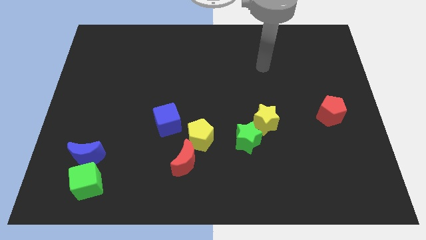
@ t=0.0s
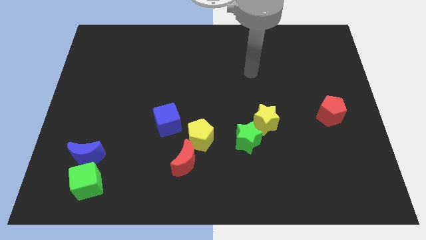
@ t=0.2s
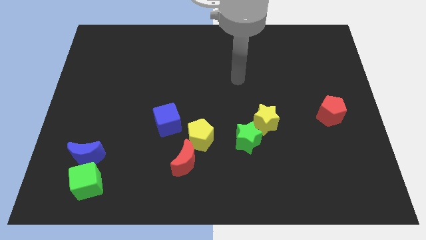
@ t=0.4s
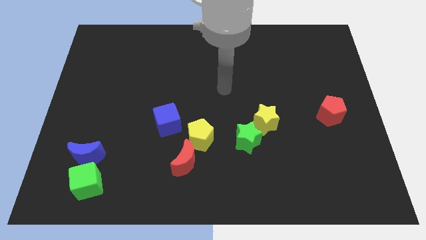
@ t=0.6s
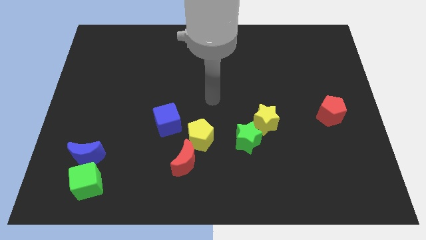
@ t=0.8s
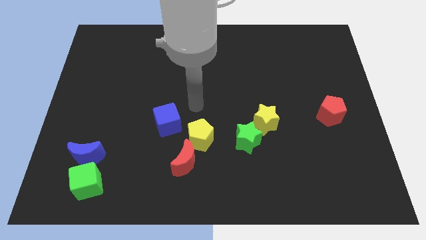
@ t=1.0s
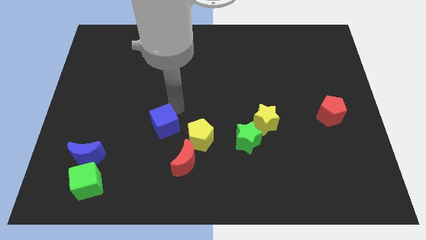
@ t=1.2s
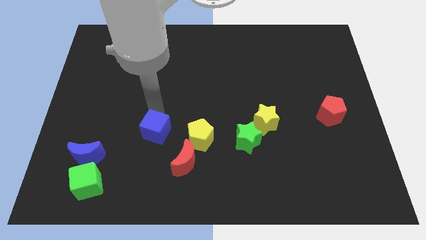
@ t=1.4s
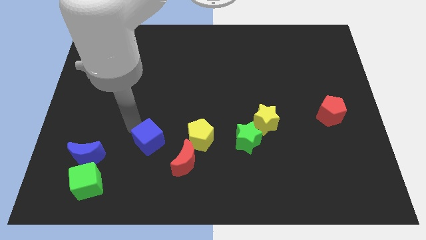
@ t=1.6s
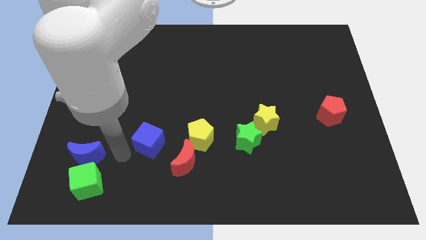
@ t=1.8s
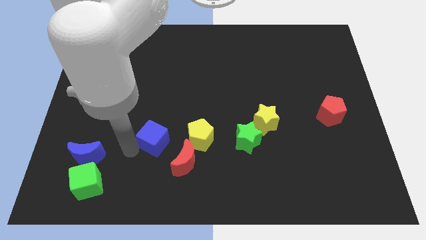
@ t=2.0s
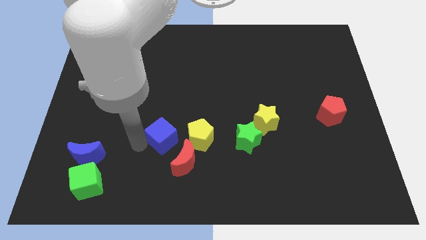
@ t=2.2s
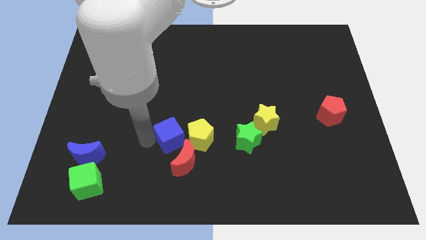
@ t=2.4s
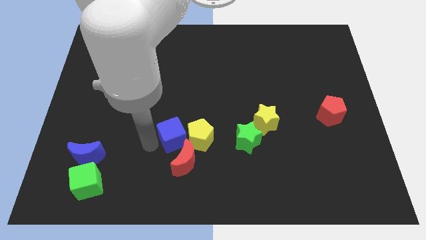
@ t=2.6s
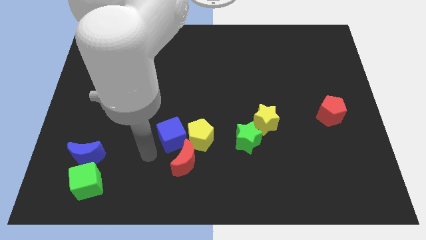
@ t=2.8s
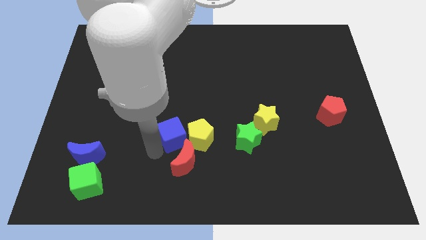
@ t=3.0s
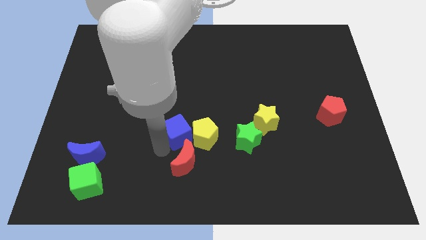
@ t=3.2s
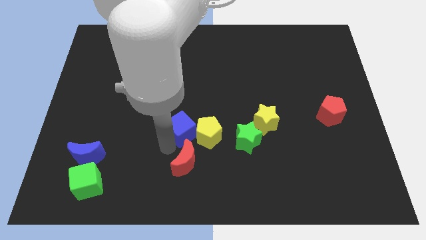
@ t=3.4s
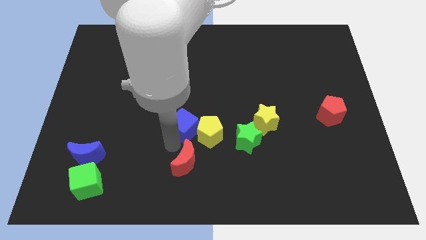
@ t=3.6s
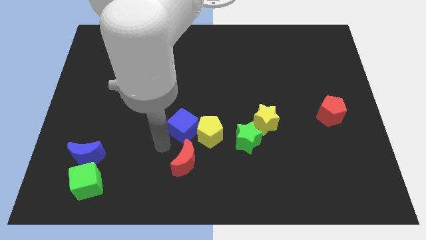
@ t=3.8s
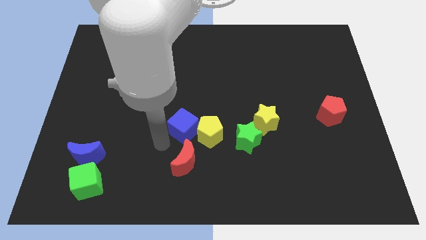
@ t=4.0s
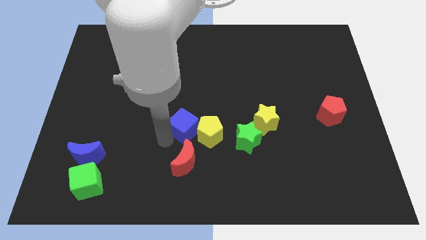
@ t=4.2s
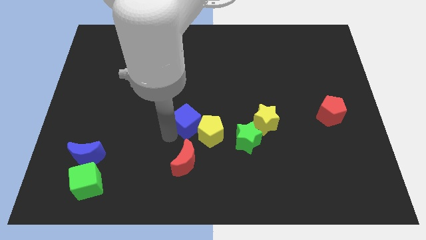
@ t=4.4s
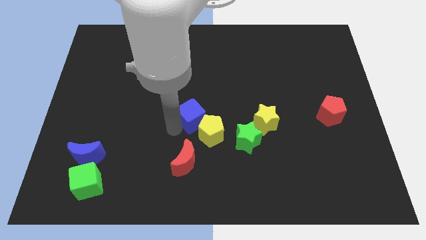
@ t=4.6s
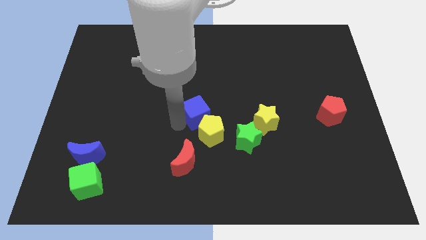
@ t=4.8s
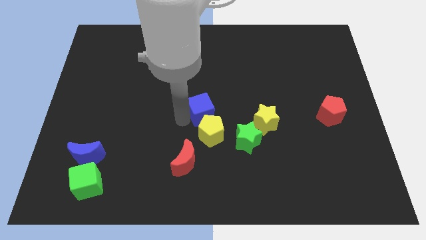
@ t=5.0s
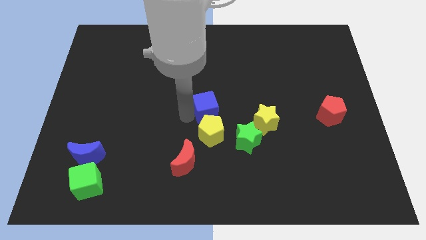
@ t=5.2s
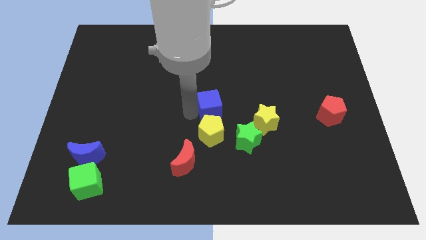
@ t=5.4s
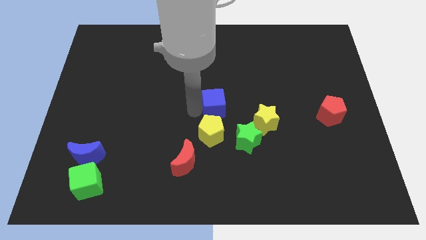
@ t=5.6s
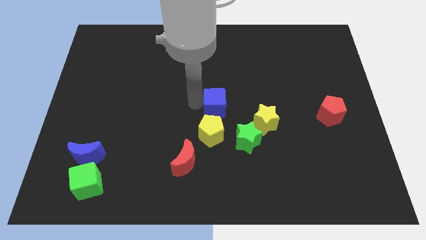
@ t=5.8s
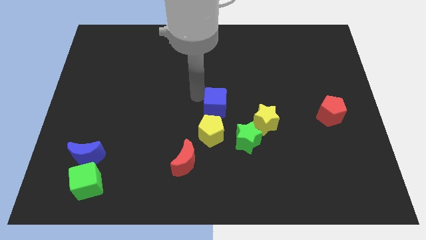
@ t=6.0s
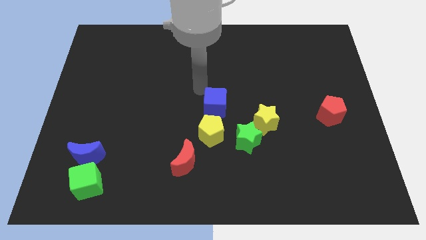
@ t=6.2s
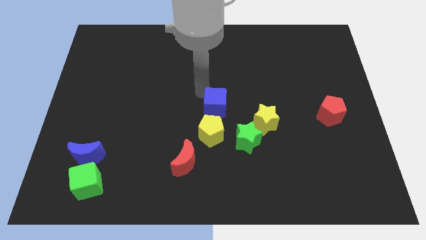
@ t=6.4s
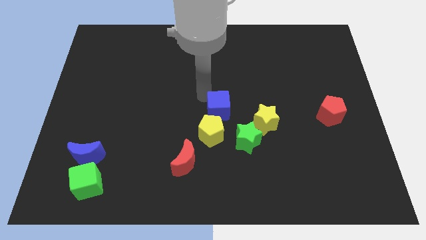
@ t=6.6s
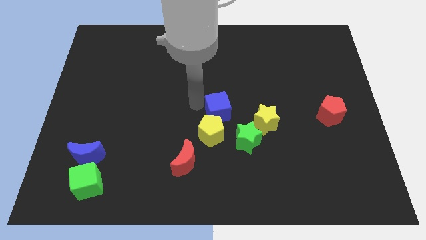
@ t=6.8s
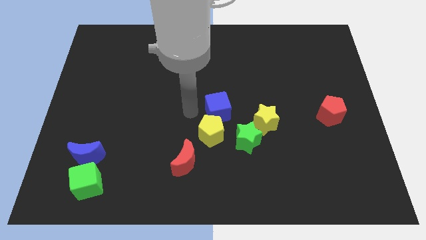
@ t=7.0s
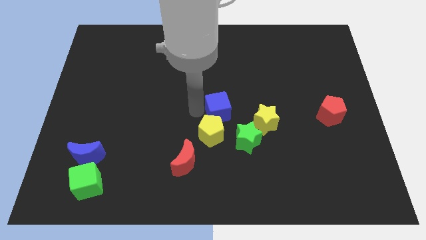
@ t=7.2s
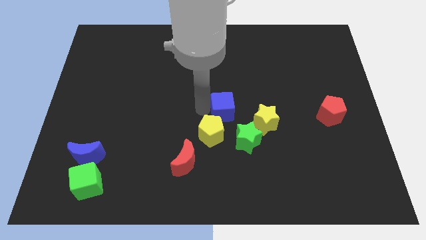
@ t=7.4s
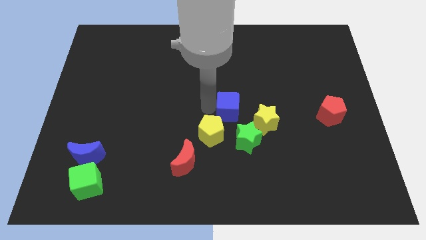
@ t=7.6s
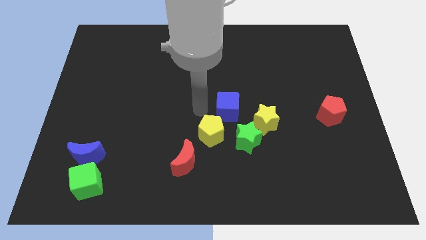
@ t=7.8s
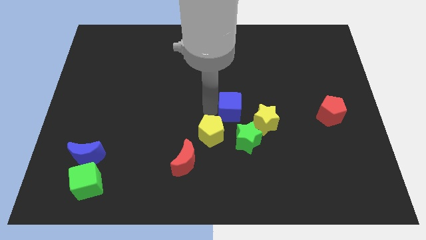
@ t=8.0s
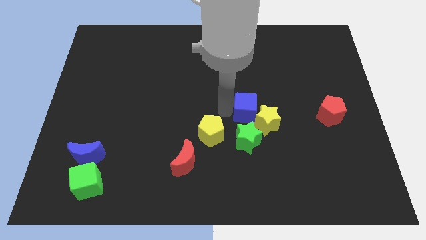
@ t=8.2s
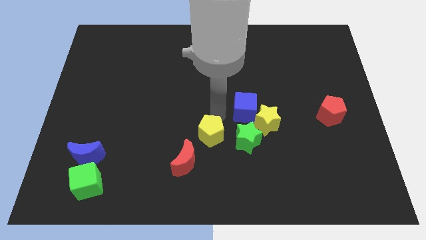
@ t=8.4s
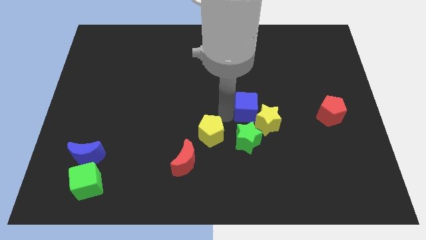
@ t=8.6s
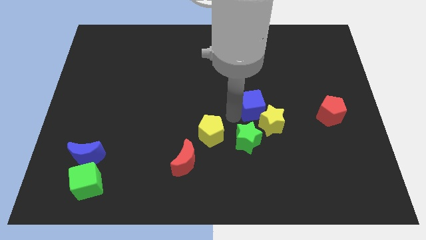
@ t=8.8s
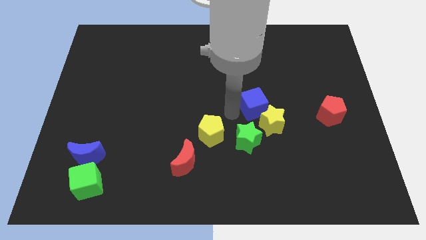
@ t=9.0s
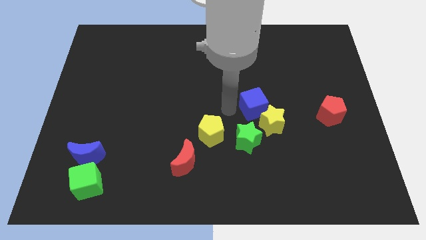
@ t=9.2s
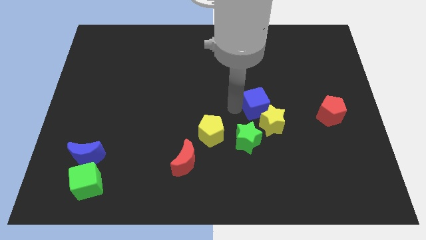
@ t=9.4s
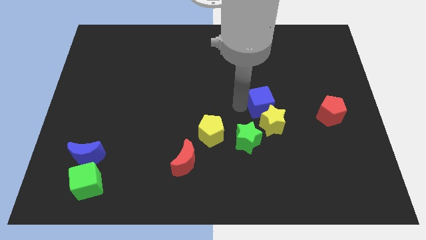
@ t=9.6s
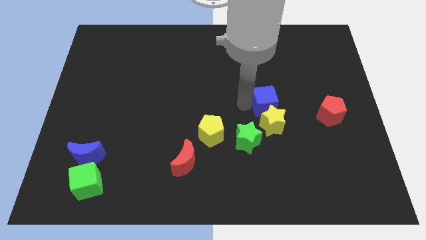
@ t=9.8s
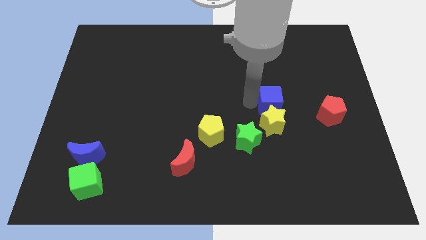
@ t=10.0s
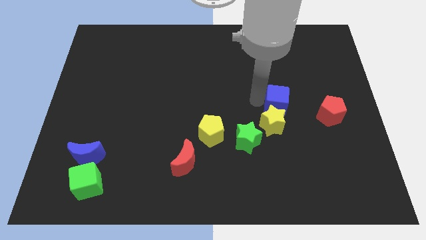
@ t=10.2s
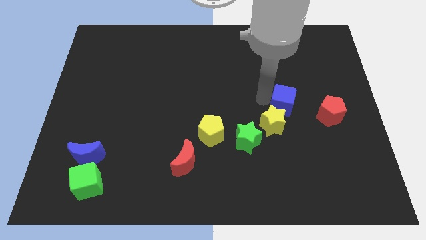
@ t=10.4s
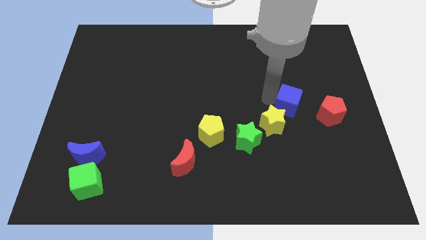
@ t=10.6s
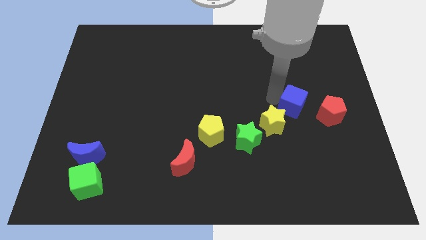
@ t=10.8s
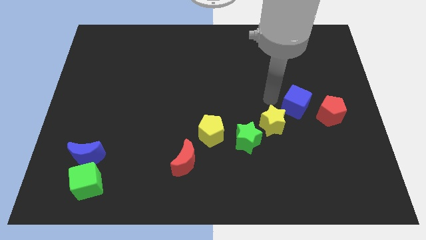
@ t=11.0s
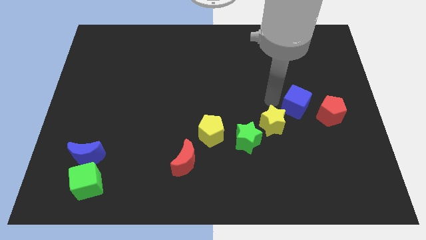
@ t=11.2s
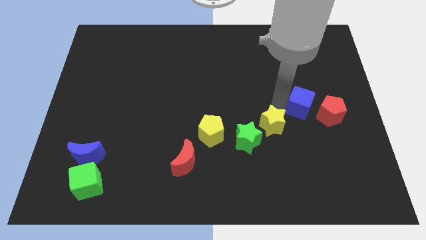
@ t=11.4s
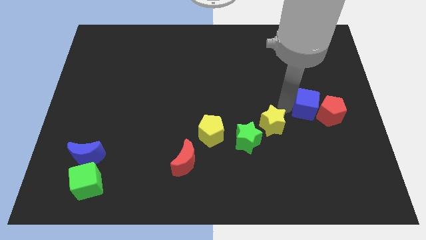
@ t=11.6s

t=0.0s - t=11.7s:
put the blue cube to the red pentagon
